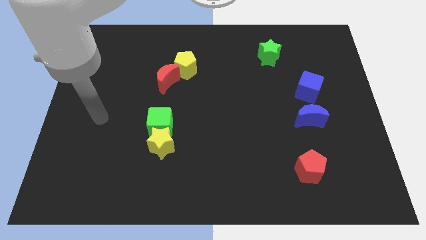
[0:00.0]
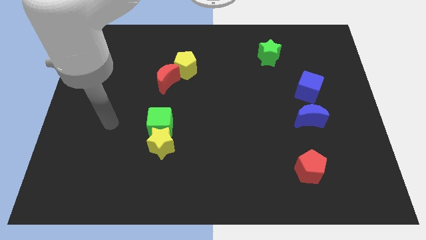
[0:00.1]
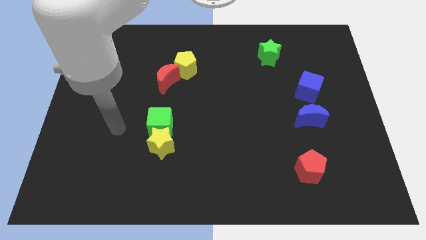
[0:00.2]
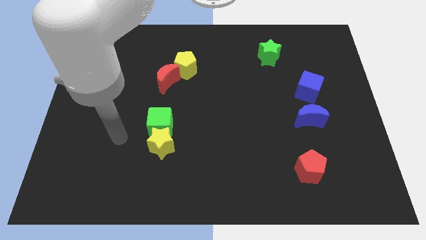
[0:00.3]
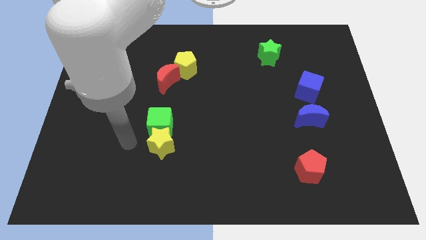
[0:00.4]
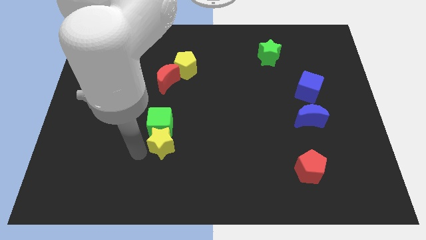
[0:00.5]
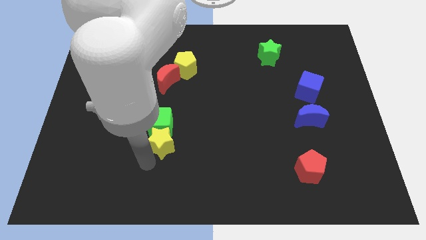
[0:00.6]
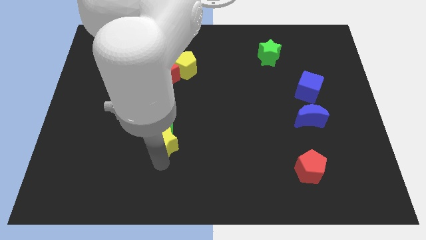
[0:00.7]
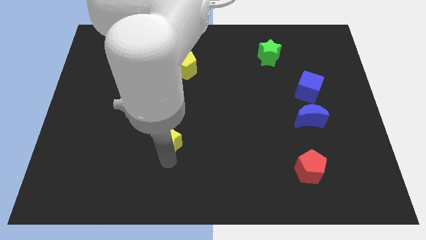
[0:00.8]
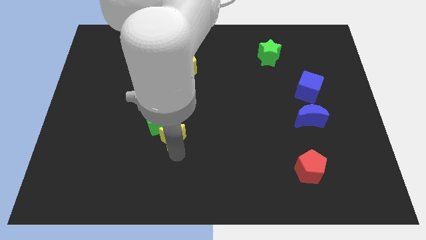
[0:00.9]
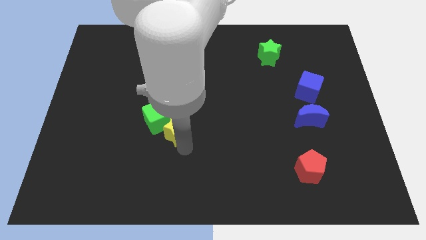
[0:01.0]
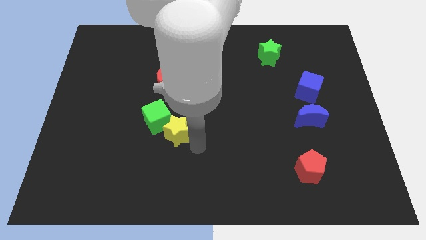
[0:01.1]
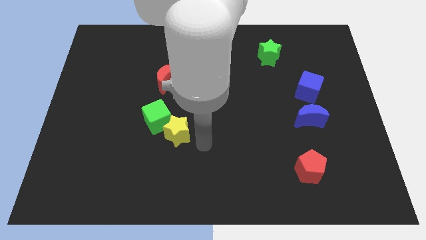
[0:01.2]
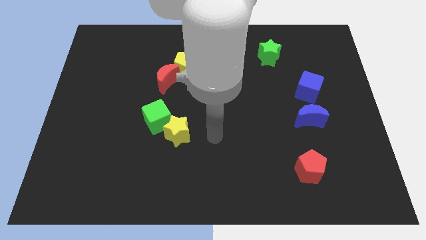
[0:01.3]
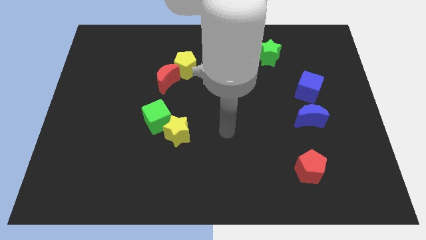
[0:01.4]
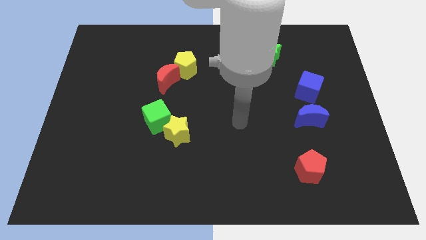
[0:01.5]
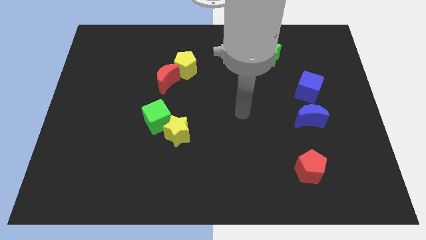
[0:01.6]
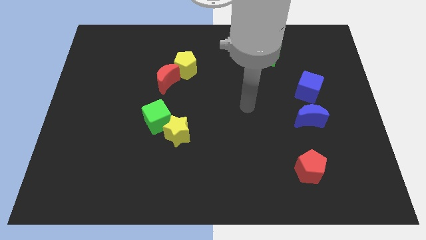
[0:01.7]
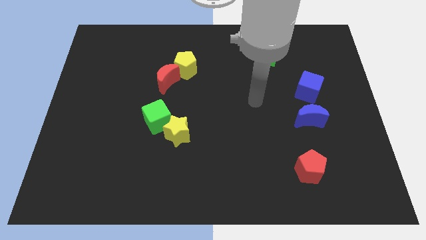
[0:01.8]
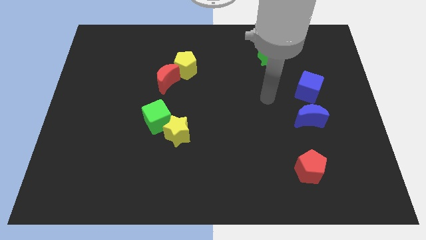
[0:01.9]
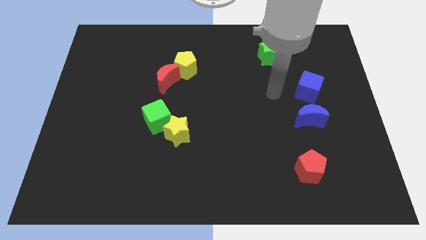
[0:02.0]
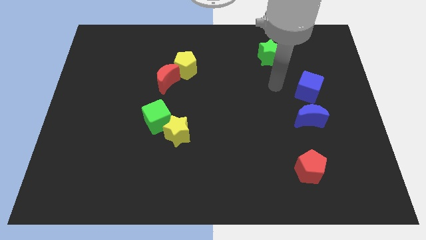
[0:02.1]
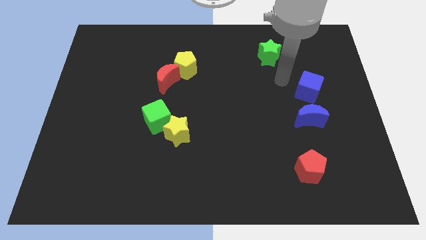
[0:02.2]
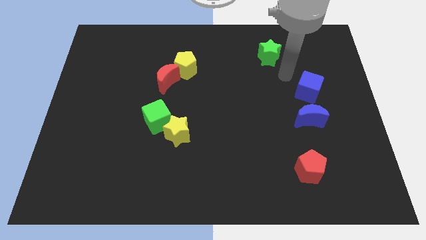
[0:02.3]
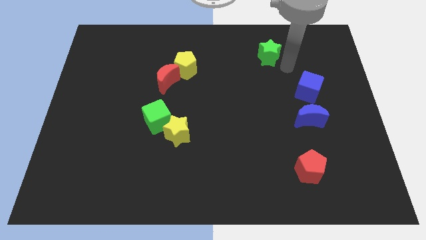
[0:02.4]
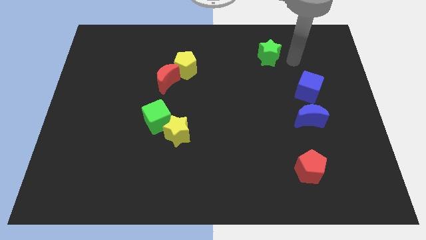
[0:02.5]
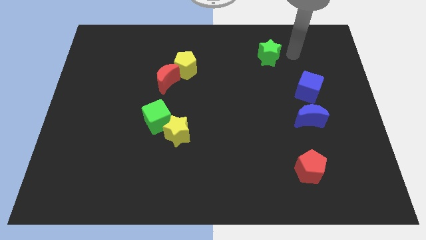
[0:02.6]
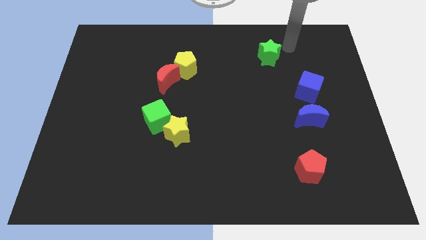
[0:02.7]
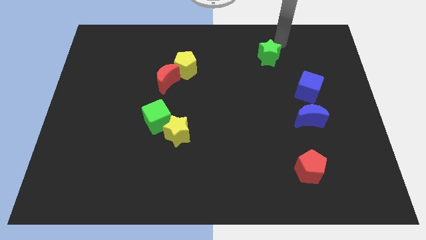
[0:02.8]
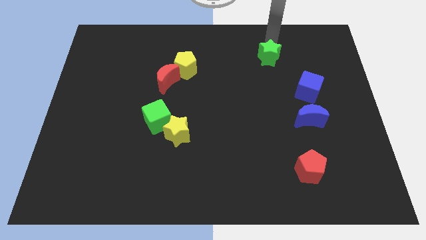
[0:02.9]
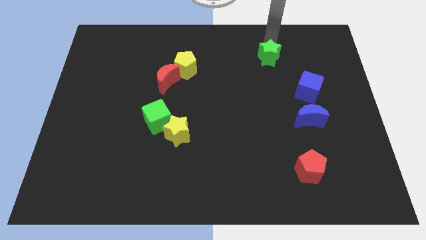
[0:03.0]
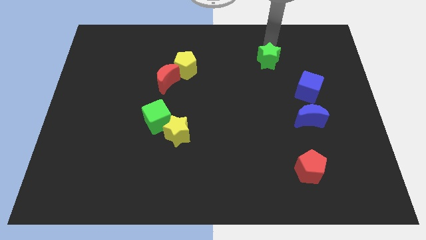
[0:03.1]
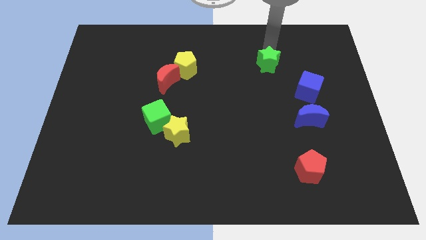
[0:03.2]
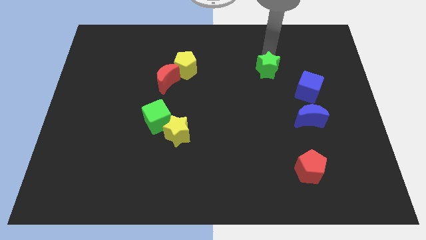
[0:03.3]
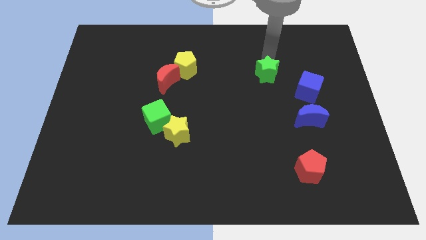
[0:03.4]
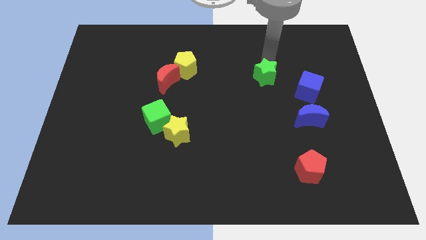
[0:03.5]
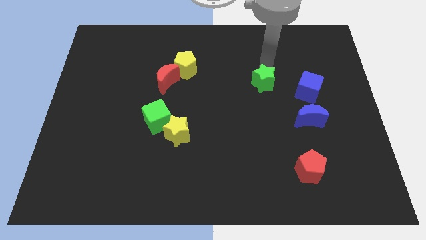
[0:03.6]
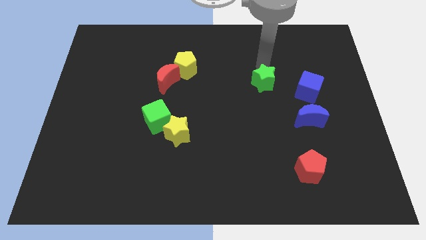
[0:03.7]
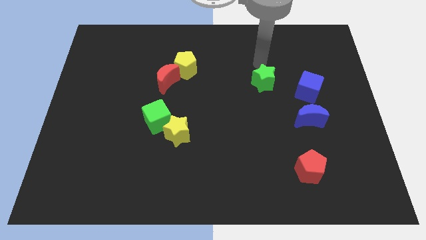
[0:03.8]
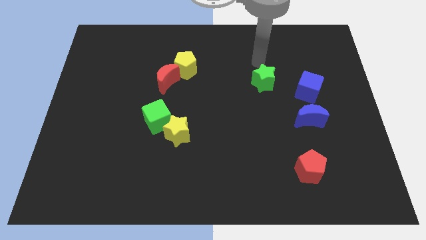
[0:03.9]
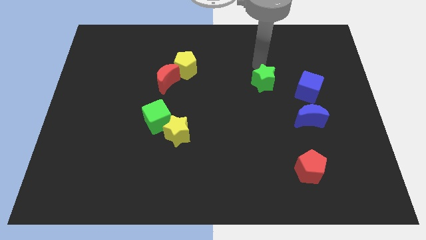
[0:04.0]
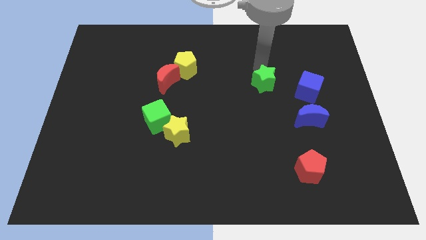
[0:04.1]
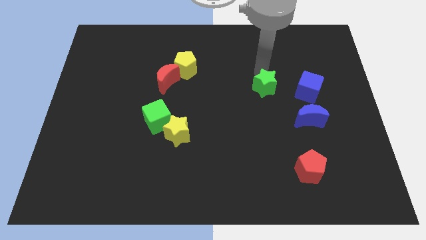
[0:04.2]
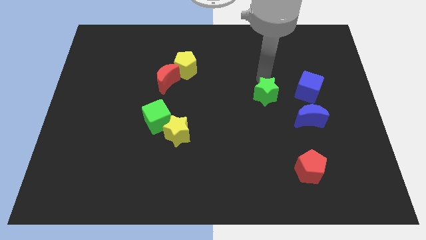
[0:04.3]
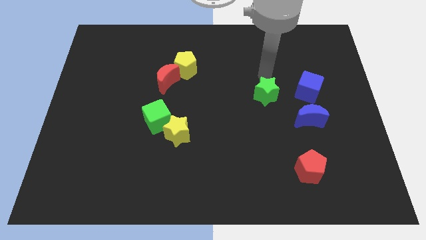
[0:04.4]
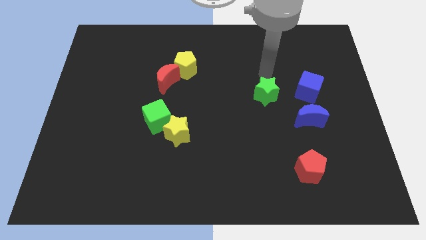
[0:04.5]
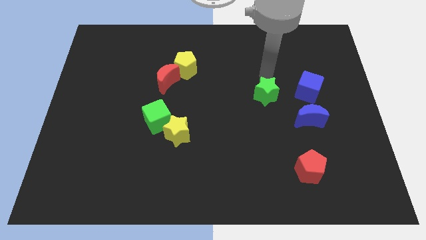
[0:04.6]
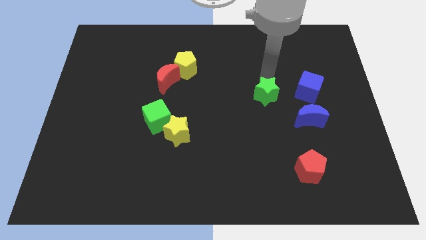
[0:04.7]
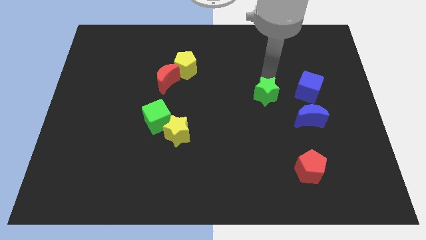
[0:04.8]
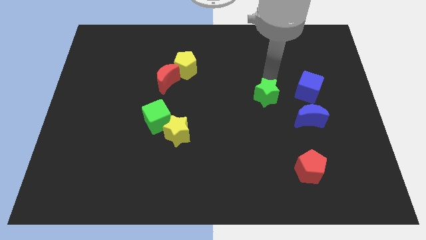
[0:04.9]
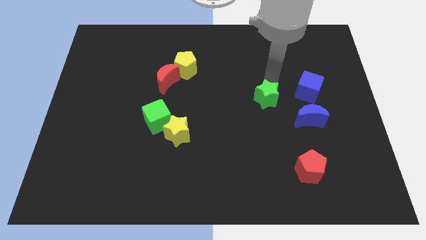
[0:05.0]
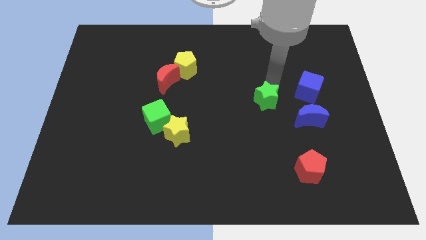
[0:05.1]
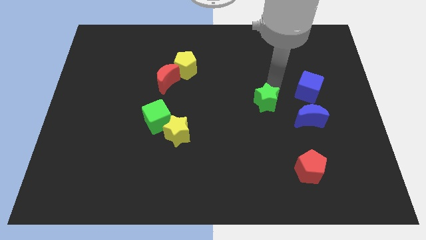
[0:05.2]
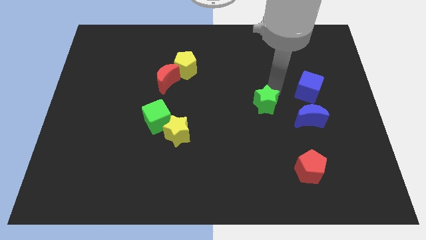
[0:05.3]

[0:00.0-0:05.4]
slide the green star to the left of the blue moon

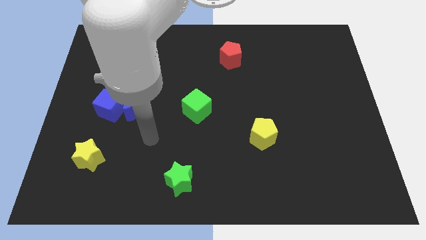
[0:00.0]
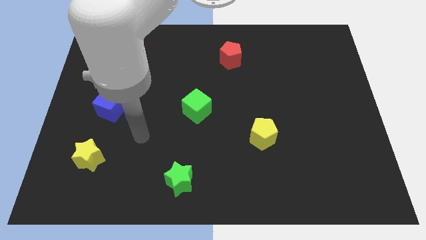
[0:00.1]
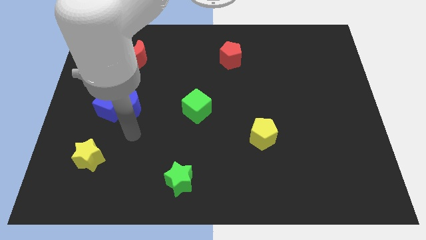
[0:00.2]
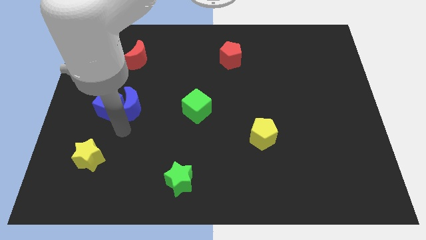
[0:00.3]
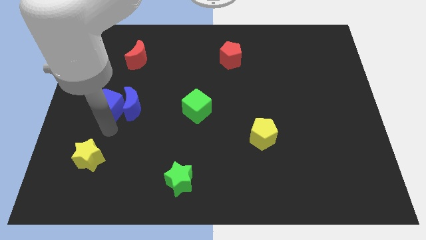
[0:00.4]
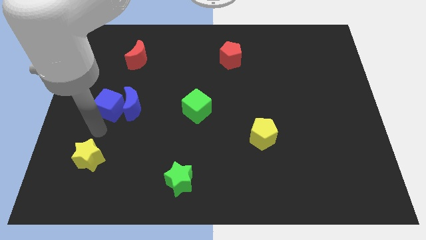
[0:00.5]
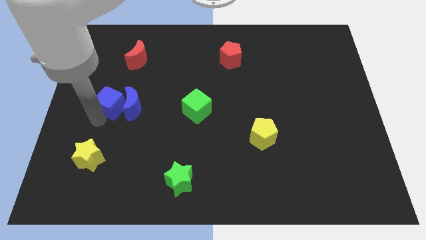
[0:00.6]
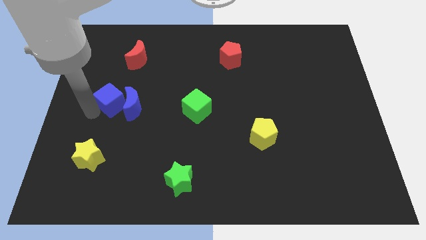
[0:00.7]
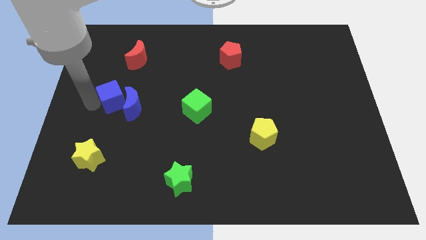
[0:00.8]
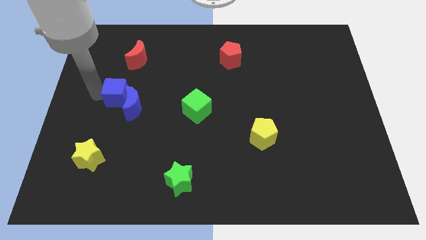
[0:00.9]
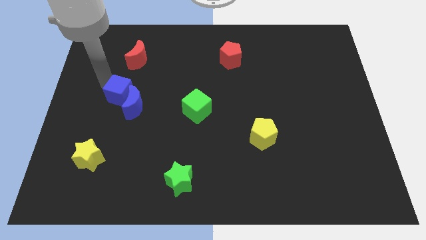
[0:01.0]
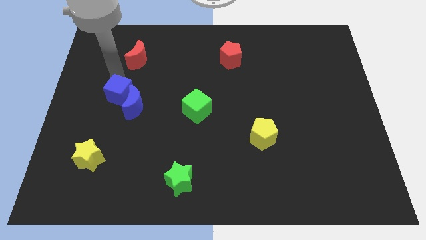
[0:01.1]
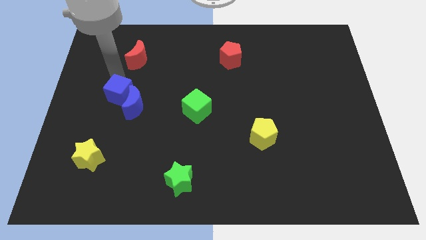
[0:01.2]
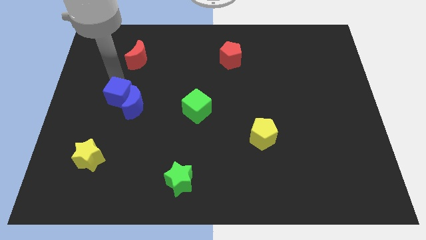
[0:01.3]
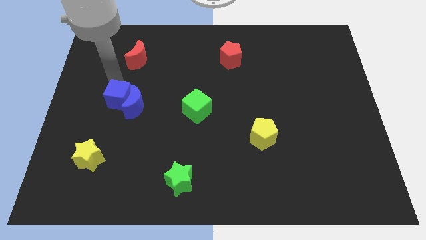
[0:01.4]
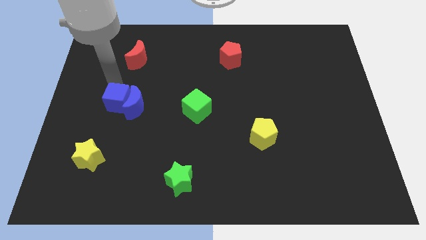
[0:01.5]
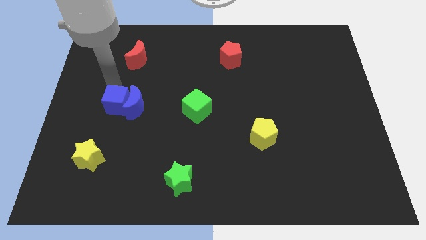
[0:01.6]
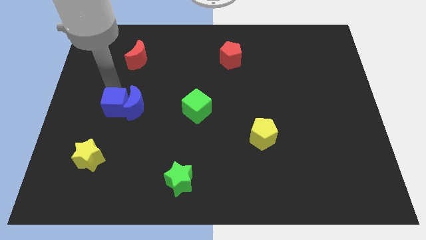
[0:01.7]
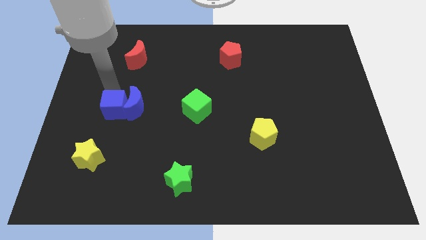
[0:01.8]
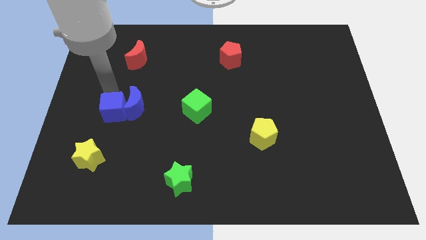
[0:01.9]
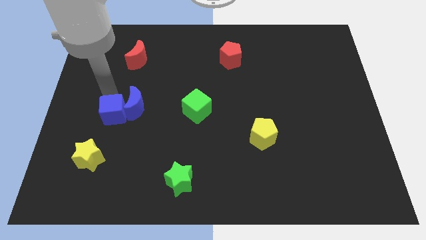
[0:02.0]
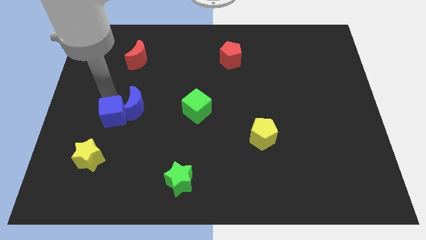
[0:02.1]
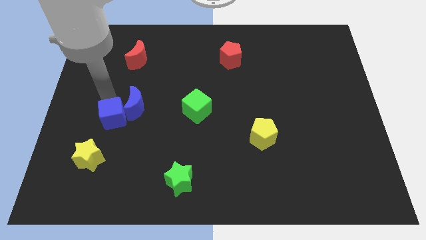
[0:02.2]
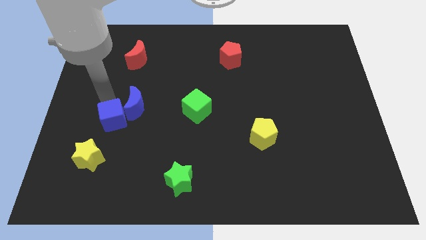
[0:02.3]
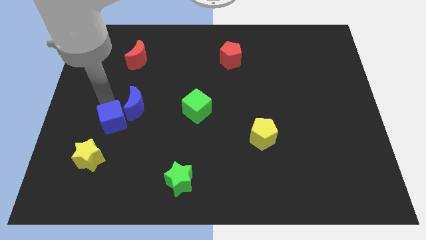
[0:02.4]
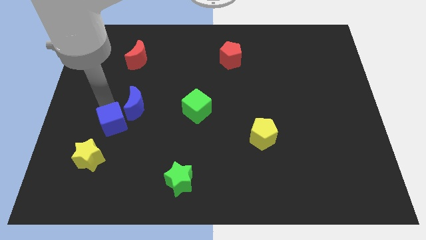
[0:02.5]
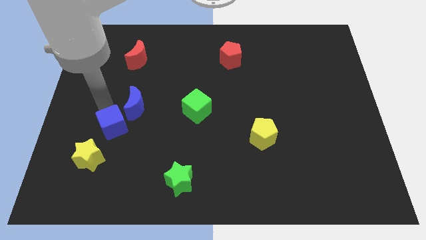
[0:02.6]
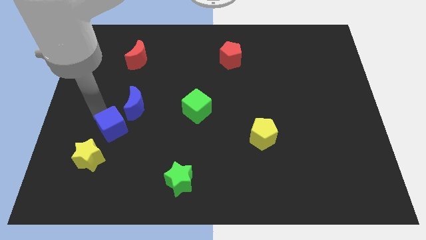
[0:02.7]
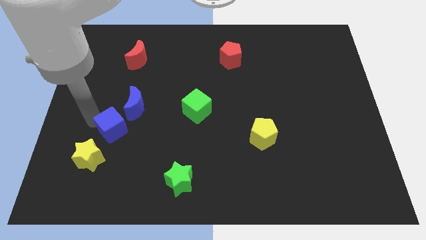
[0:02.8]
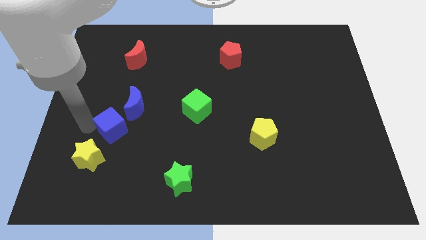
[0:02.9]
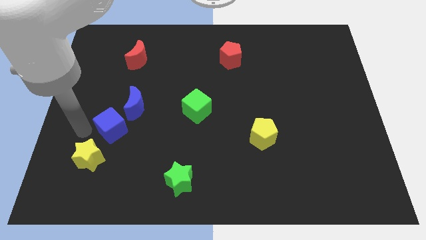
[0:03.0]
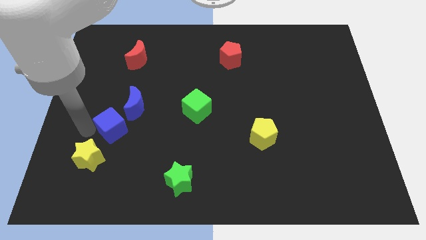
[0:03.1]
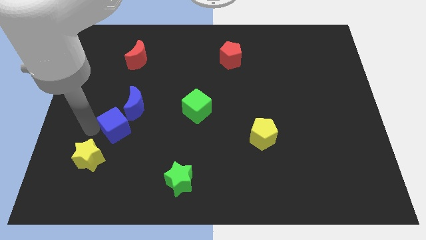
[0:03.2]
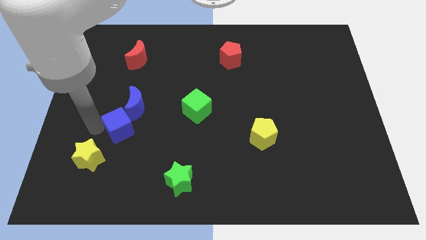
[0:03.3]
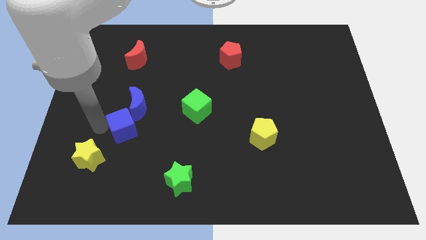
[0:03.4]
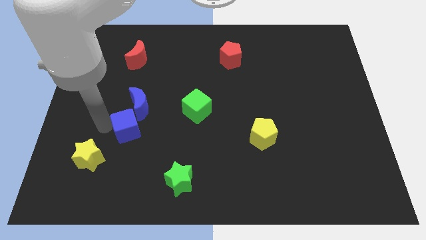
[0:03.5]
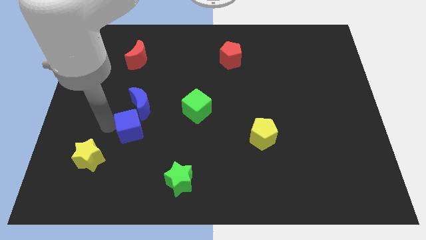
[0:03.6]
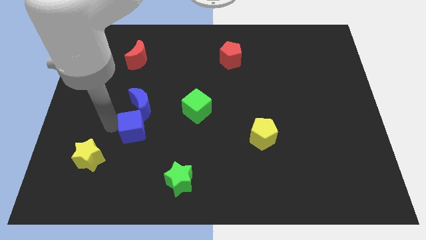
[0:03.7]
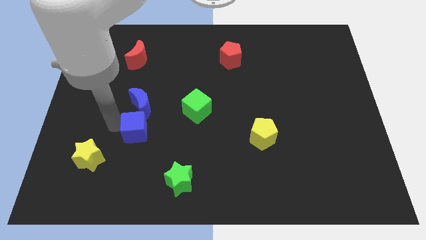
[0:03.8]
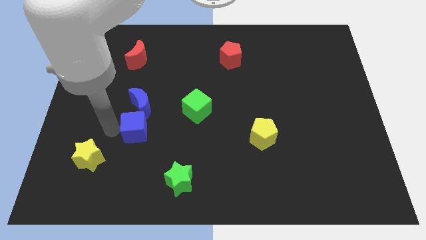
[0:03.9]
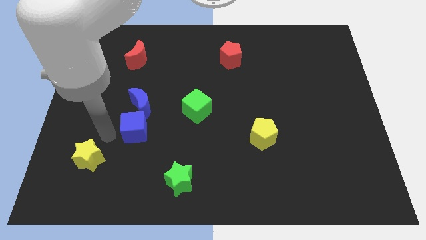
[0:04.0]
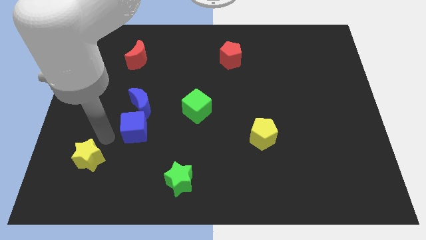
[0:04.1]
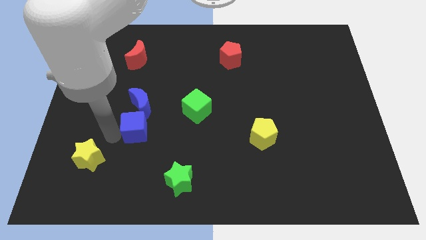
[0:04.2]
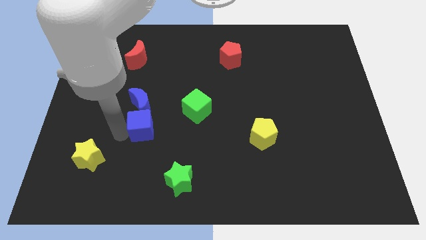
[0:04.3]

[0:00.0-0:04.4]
move the blue cube to the bottom right of the blue moon
